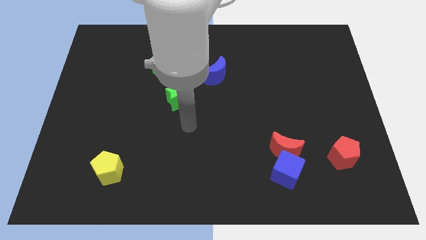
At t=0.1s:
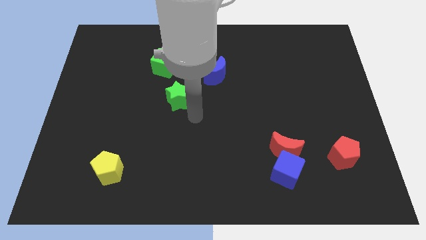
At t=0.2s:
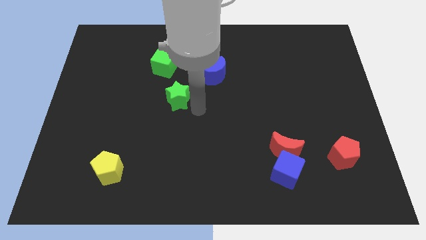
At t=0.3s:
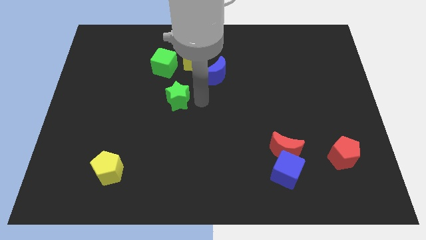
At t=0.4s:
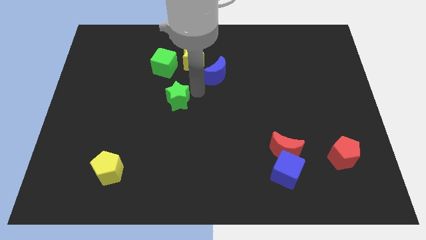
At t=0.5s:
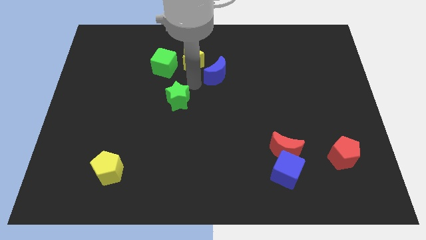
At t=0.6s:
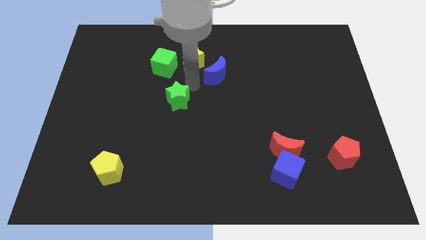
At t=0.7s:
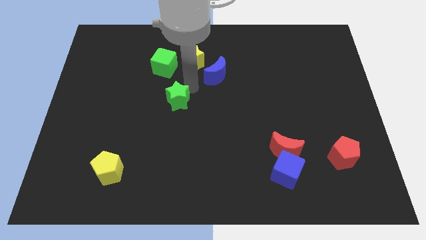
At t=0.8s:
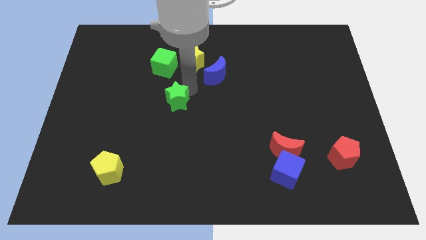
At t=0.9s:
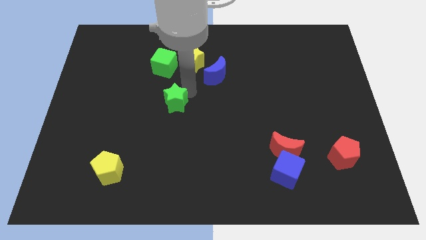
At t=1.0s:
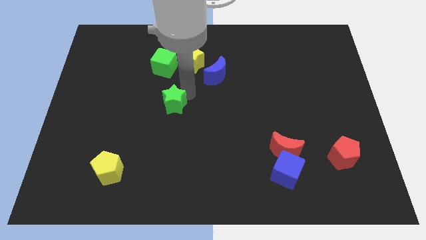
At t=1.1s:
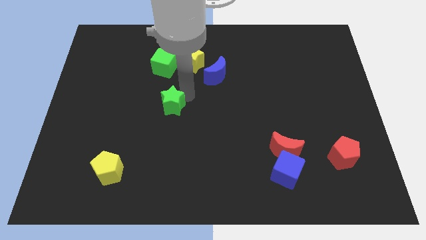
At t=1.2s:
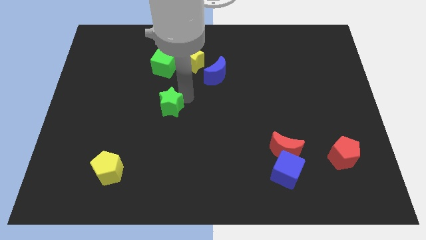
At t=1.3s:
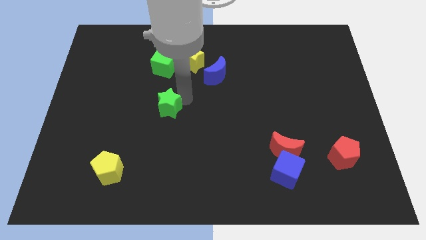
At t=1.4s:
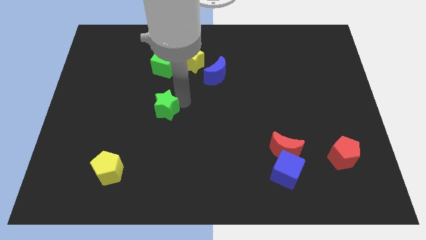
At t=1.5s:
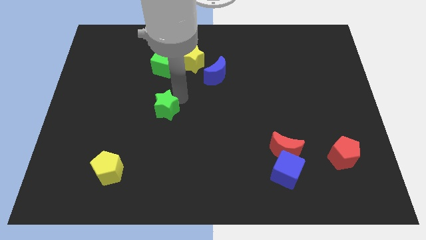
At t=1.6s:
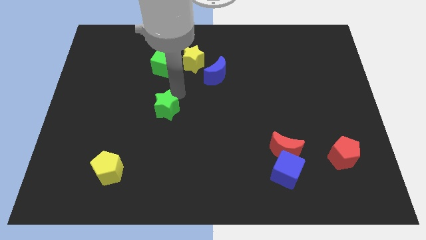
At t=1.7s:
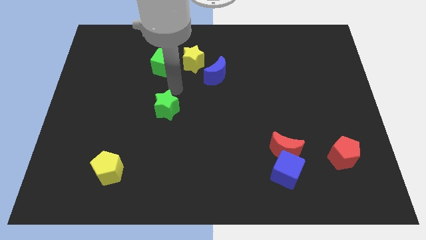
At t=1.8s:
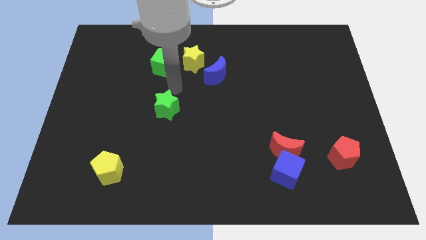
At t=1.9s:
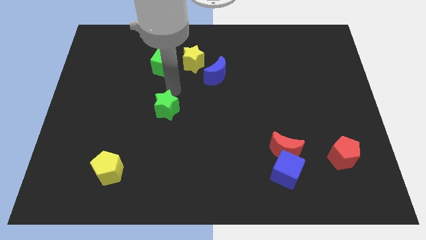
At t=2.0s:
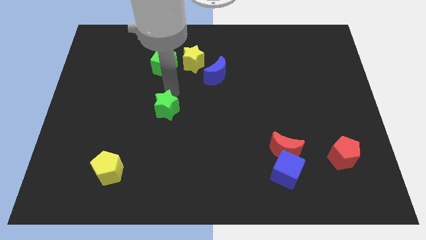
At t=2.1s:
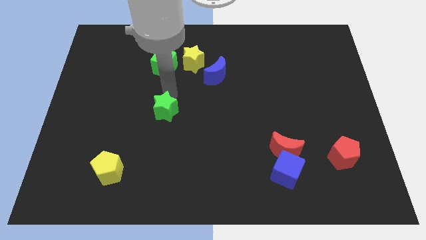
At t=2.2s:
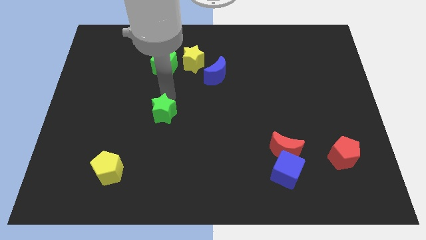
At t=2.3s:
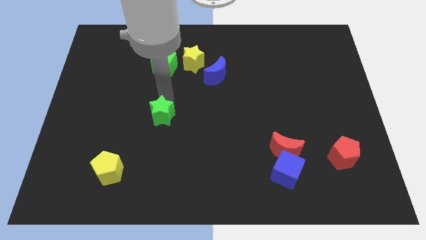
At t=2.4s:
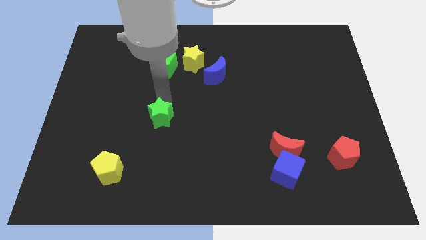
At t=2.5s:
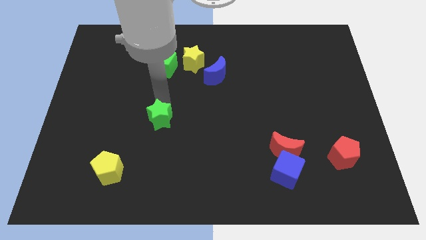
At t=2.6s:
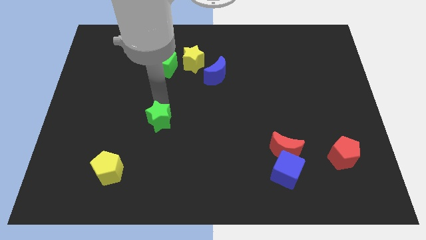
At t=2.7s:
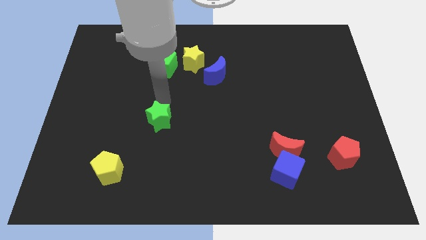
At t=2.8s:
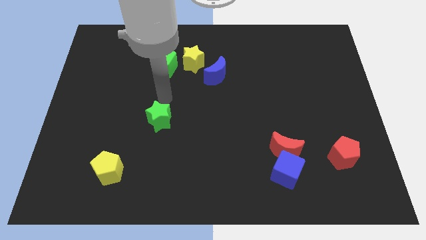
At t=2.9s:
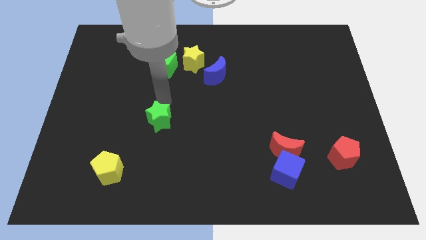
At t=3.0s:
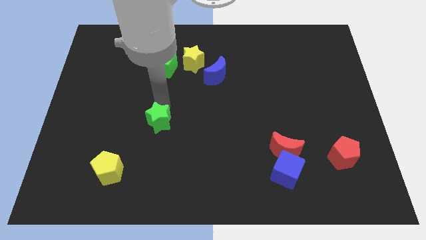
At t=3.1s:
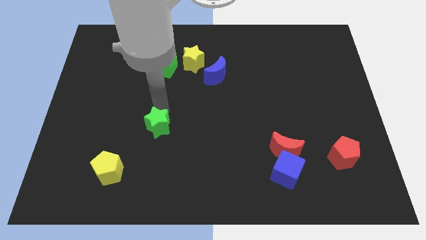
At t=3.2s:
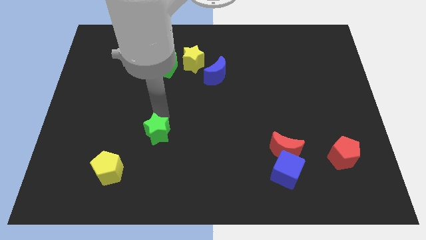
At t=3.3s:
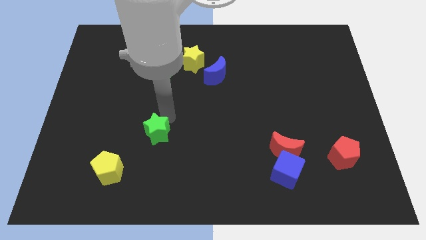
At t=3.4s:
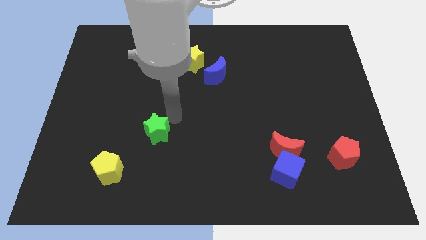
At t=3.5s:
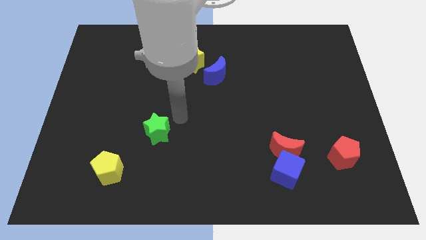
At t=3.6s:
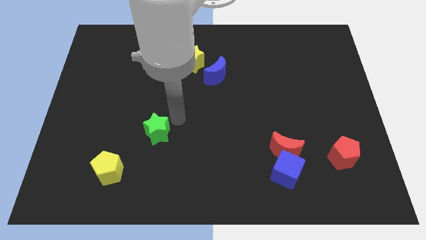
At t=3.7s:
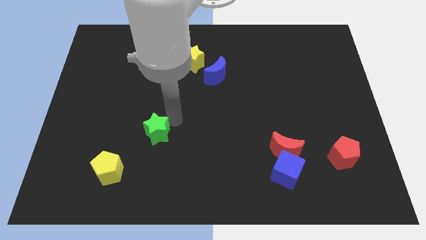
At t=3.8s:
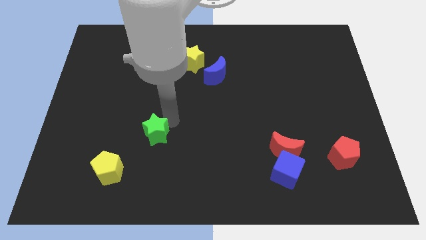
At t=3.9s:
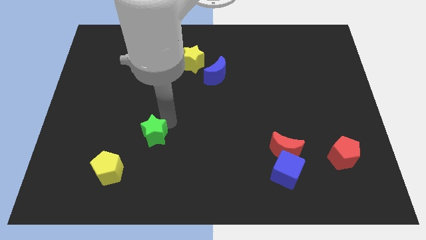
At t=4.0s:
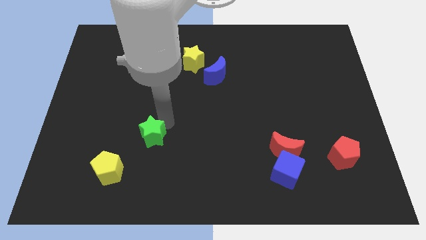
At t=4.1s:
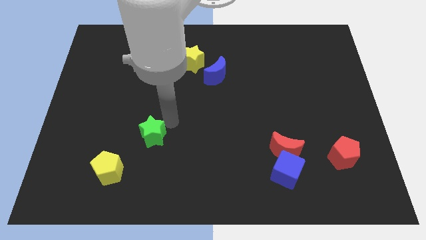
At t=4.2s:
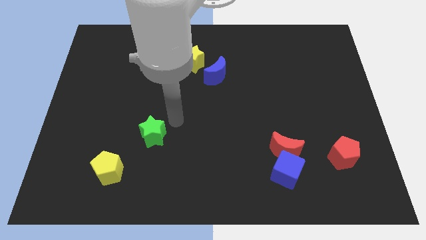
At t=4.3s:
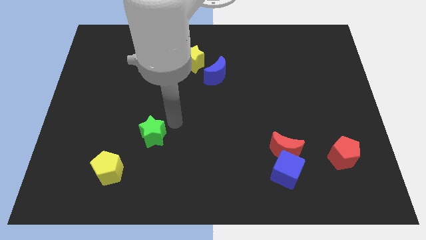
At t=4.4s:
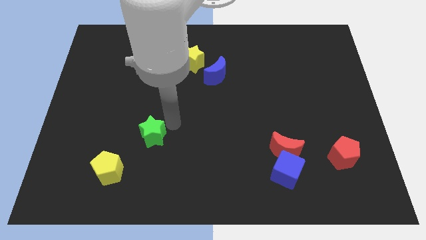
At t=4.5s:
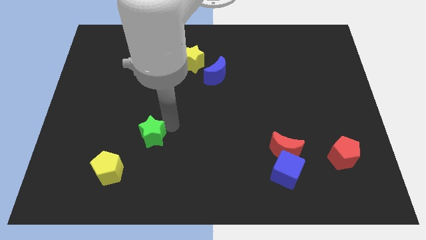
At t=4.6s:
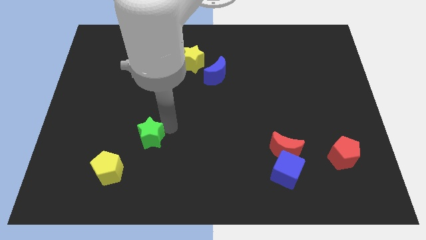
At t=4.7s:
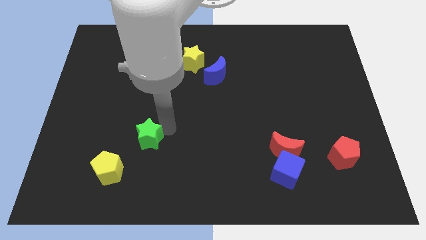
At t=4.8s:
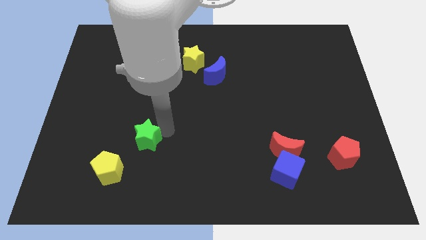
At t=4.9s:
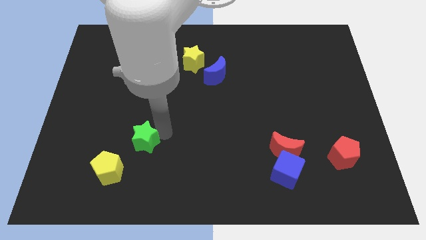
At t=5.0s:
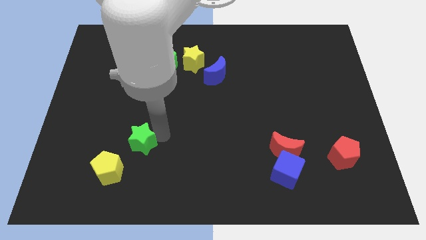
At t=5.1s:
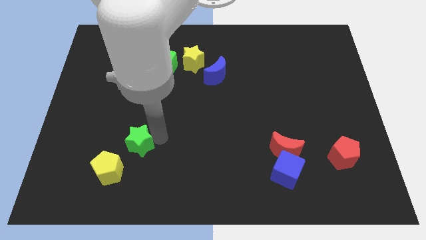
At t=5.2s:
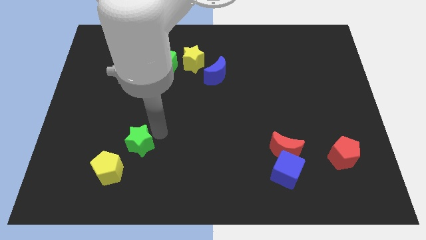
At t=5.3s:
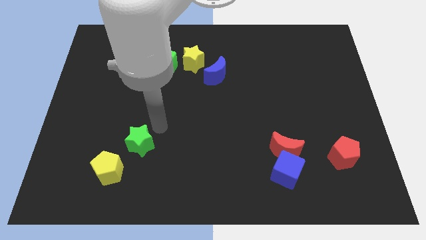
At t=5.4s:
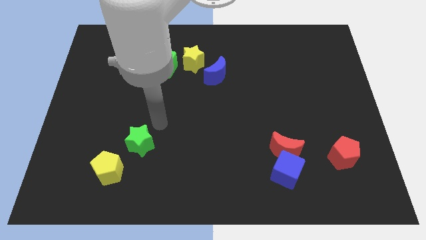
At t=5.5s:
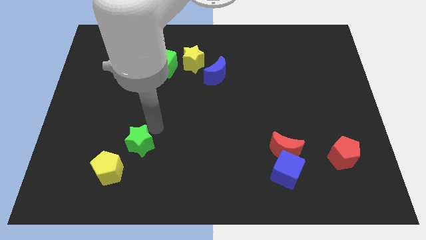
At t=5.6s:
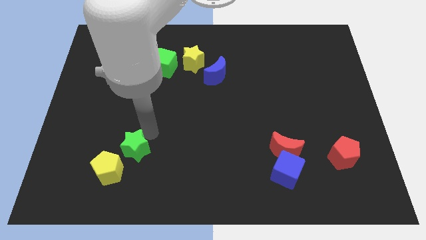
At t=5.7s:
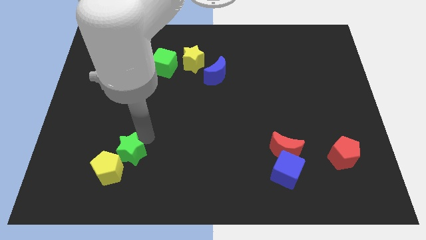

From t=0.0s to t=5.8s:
push the green star next to the yellow pentagon

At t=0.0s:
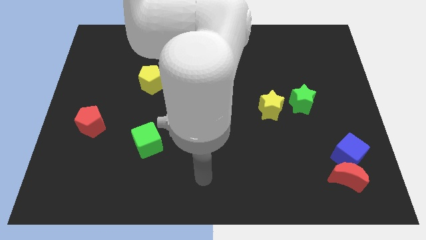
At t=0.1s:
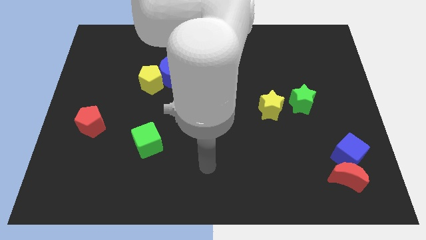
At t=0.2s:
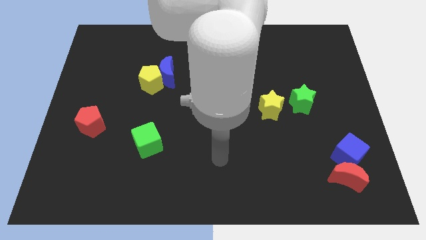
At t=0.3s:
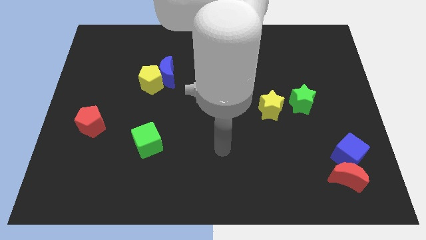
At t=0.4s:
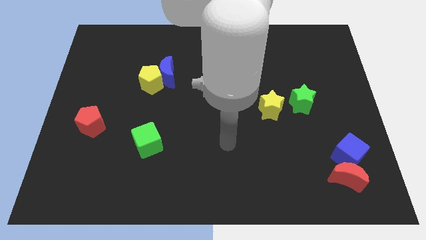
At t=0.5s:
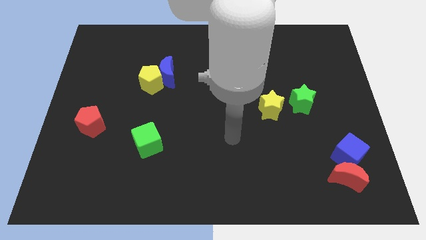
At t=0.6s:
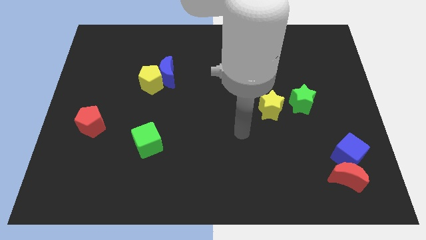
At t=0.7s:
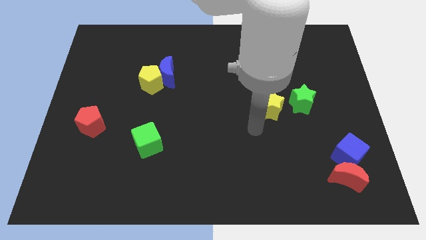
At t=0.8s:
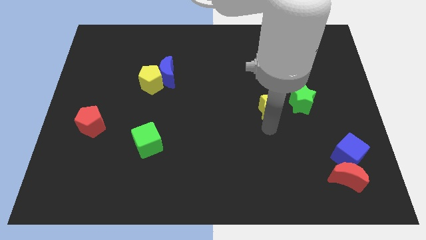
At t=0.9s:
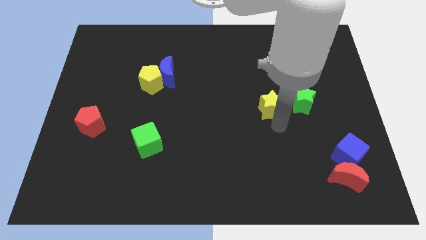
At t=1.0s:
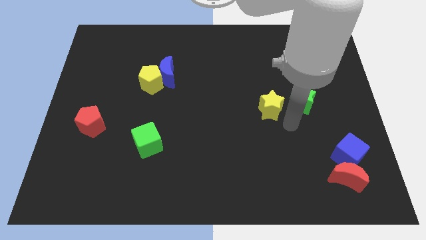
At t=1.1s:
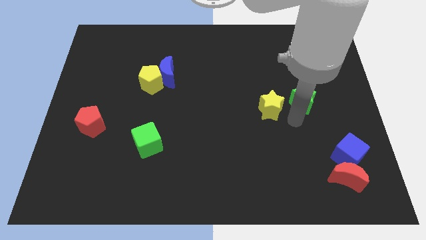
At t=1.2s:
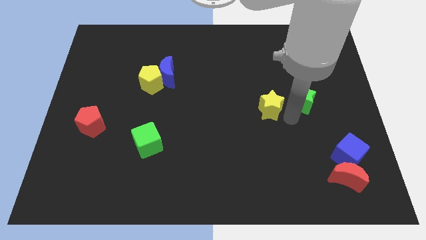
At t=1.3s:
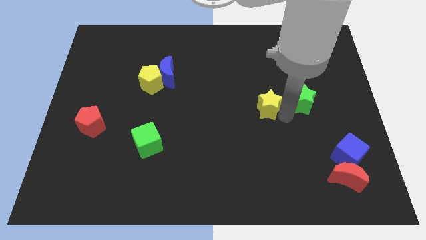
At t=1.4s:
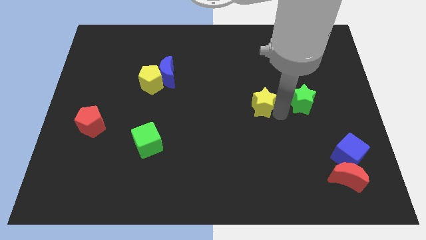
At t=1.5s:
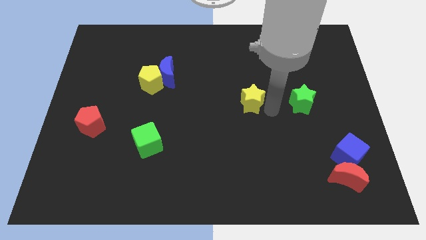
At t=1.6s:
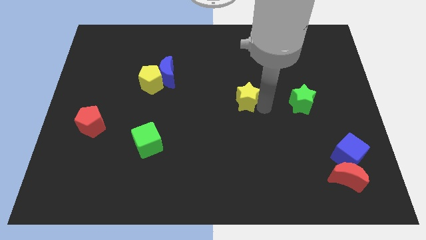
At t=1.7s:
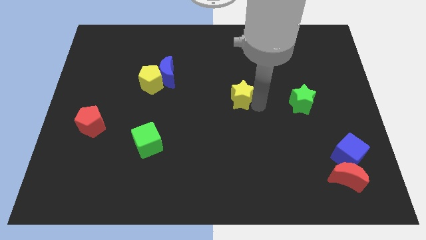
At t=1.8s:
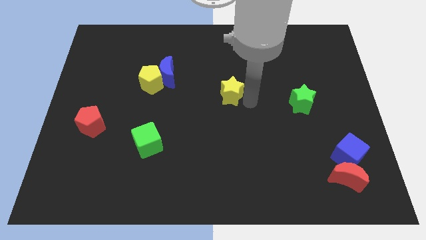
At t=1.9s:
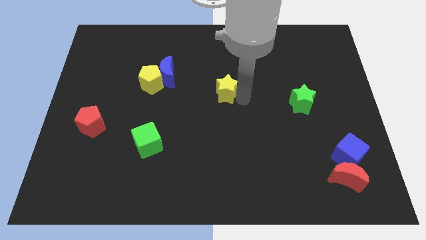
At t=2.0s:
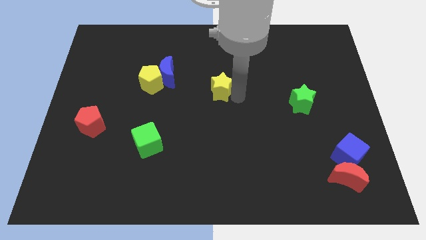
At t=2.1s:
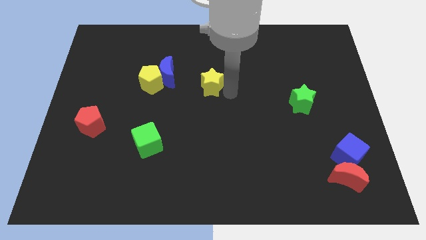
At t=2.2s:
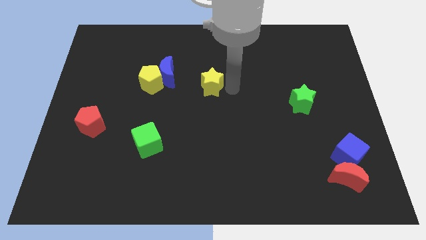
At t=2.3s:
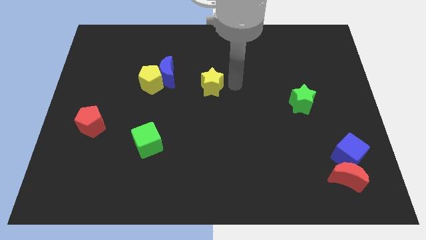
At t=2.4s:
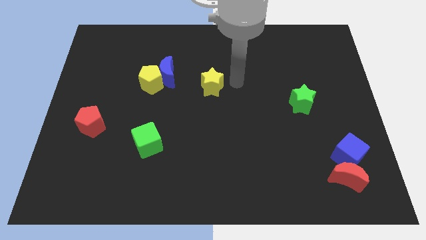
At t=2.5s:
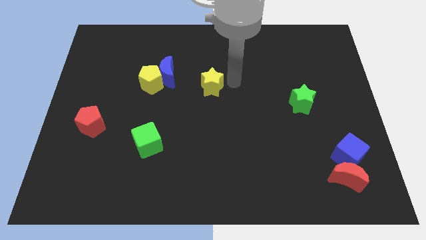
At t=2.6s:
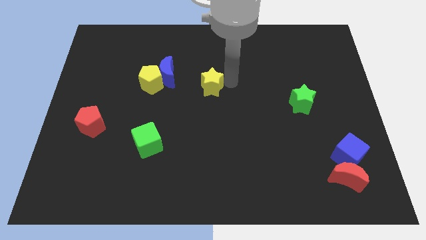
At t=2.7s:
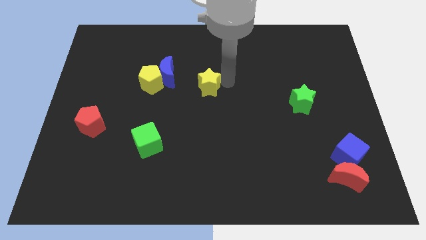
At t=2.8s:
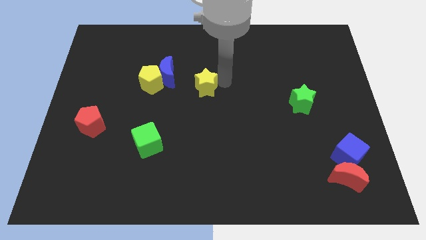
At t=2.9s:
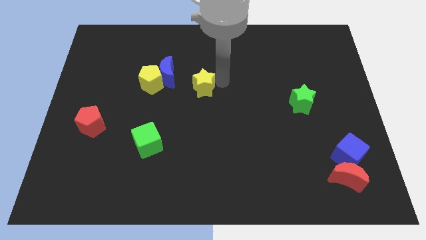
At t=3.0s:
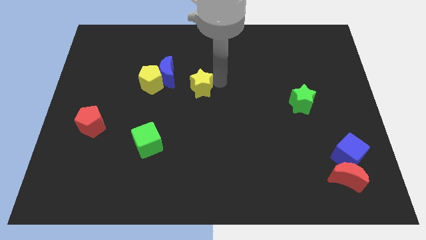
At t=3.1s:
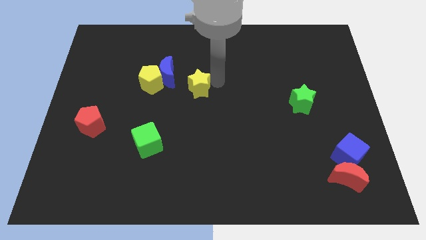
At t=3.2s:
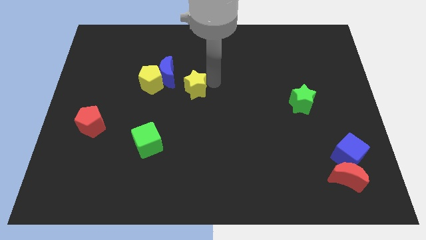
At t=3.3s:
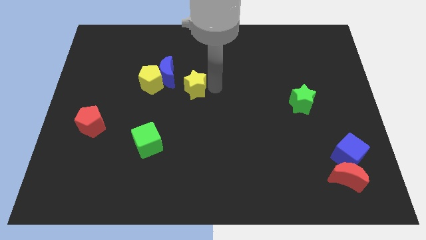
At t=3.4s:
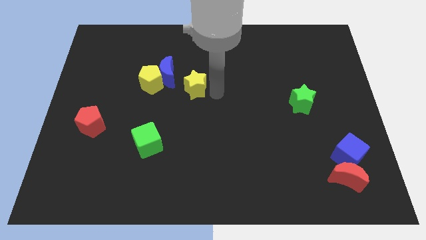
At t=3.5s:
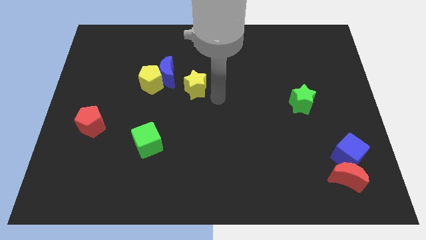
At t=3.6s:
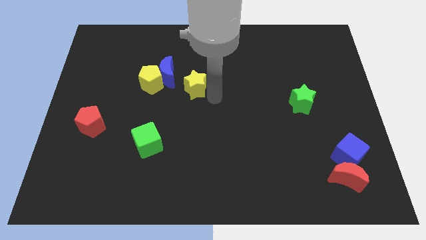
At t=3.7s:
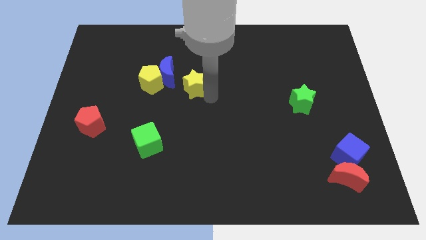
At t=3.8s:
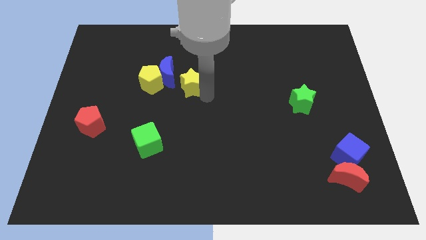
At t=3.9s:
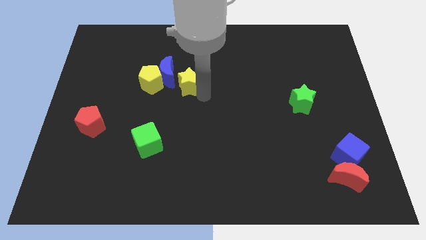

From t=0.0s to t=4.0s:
push the yellow star towards the blue moon
